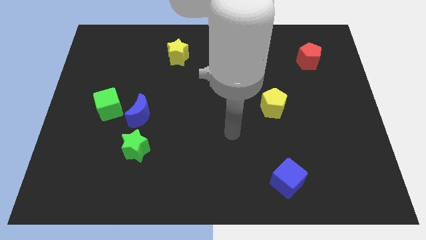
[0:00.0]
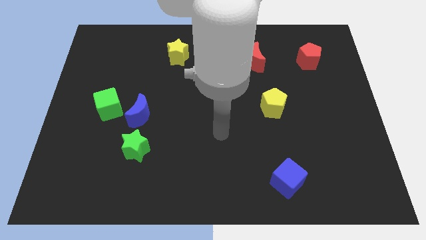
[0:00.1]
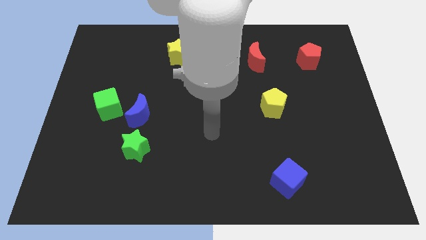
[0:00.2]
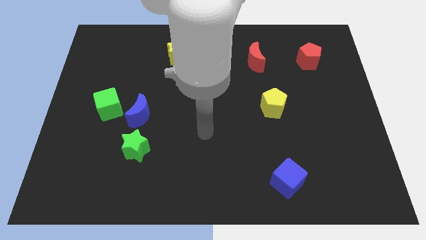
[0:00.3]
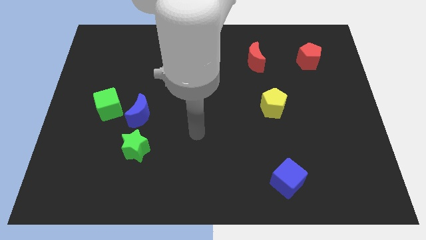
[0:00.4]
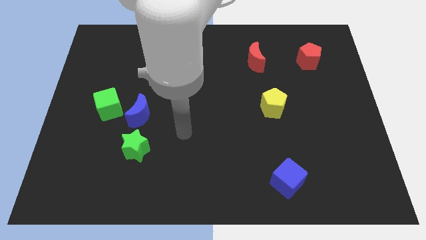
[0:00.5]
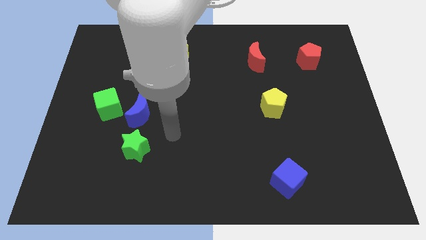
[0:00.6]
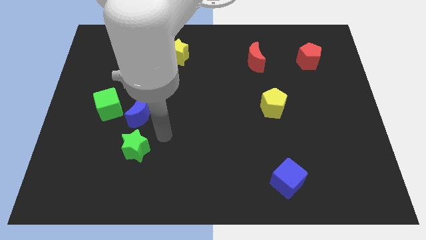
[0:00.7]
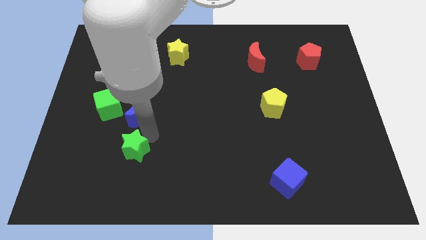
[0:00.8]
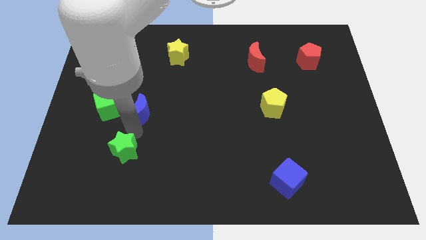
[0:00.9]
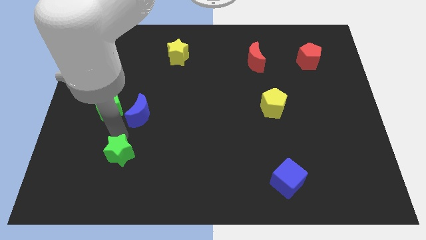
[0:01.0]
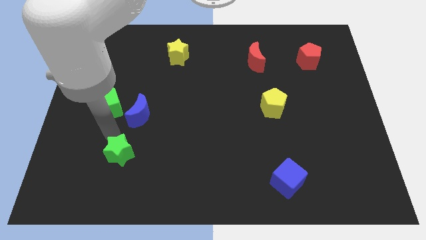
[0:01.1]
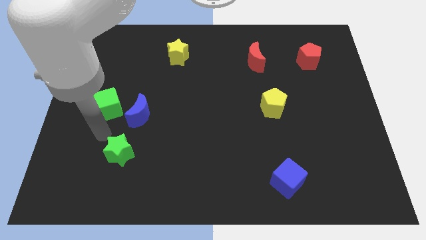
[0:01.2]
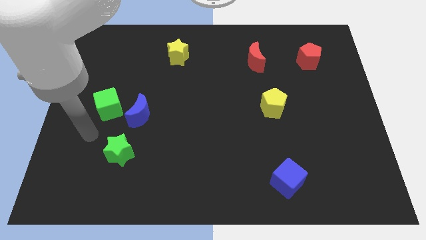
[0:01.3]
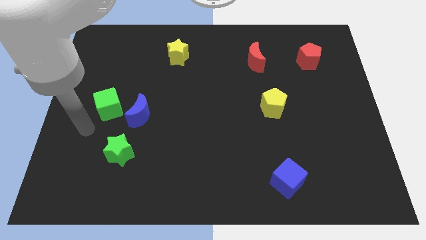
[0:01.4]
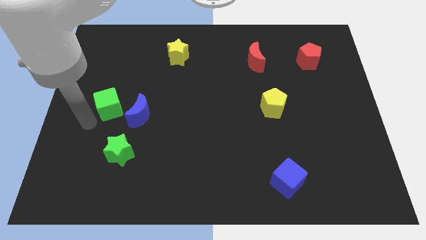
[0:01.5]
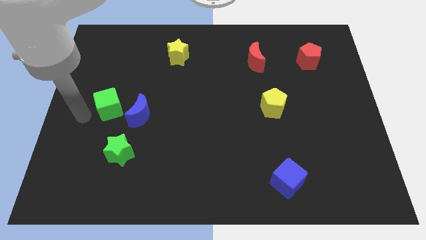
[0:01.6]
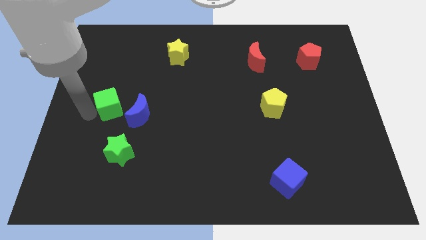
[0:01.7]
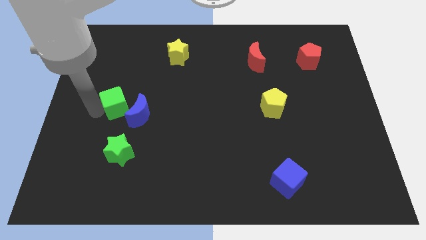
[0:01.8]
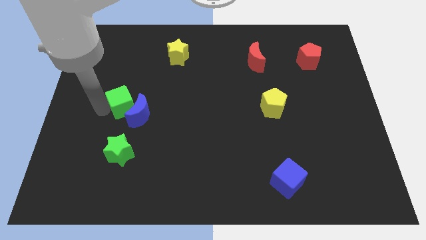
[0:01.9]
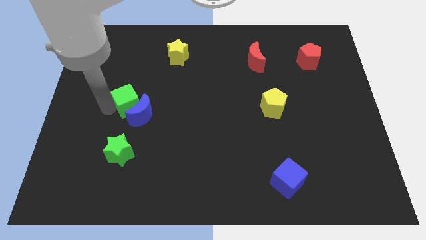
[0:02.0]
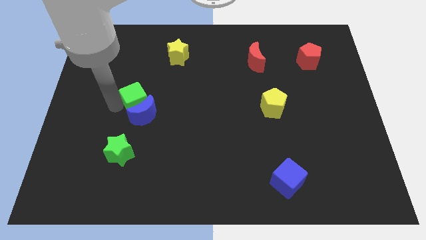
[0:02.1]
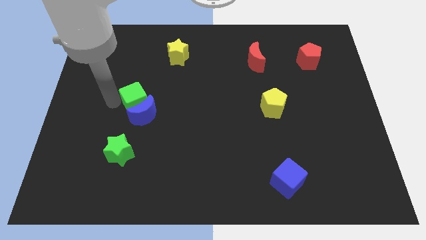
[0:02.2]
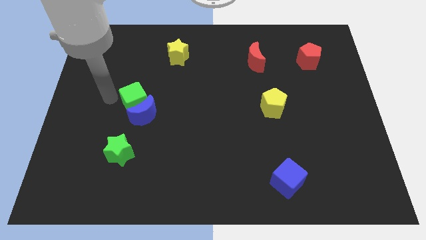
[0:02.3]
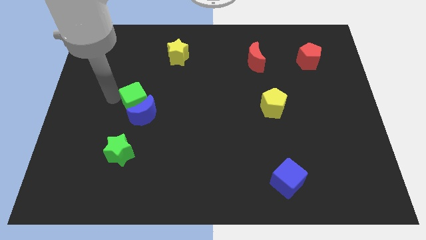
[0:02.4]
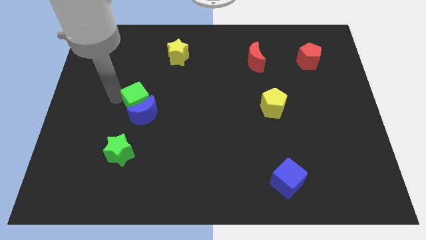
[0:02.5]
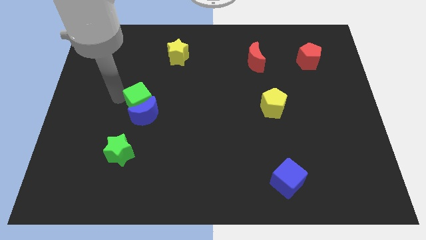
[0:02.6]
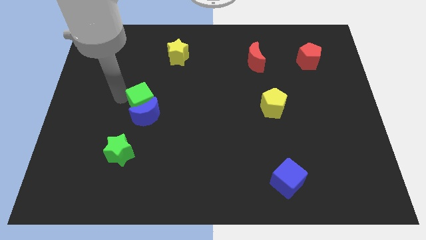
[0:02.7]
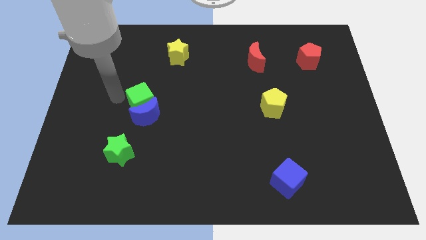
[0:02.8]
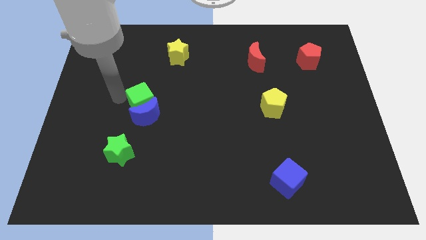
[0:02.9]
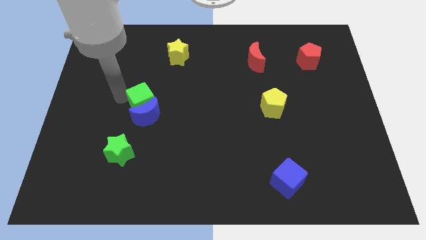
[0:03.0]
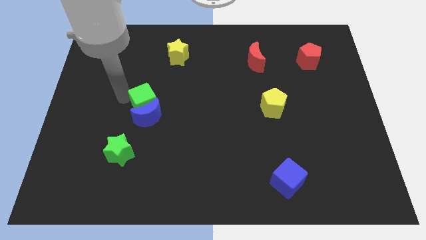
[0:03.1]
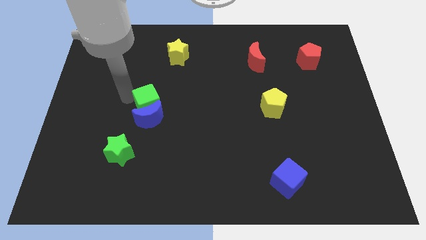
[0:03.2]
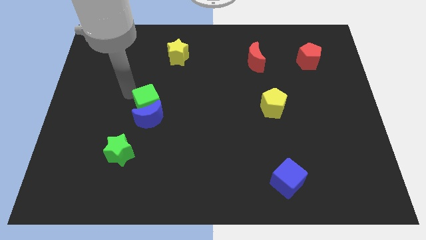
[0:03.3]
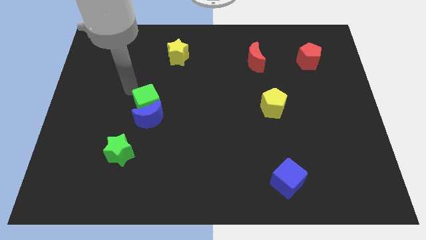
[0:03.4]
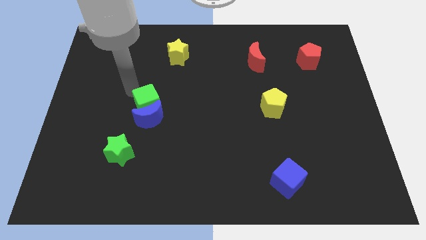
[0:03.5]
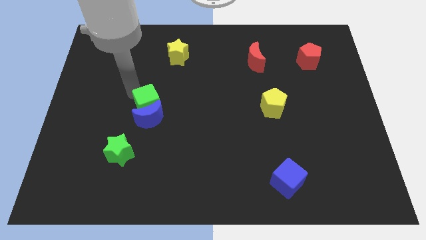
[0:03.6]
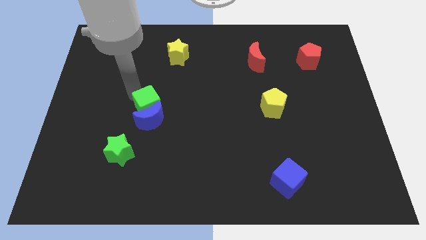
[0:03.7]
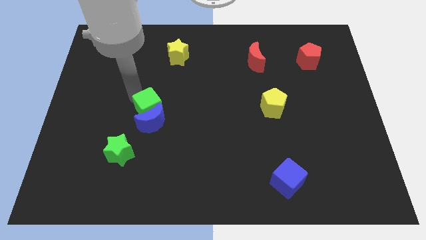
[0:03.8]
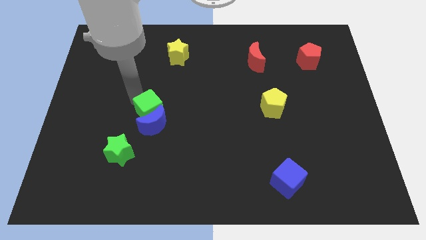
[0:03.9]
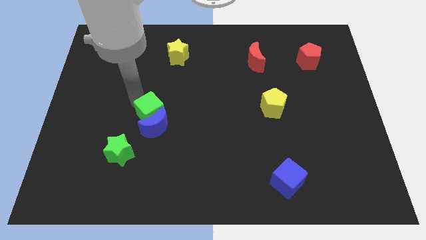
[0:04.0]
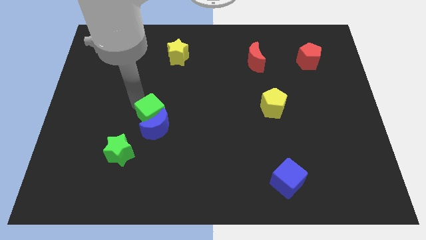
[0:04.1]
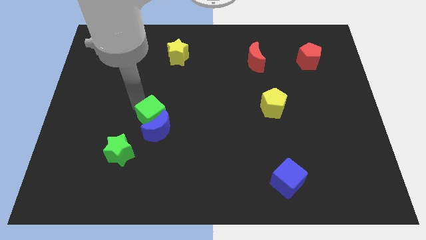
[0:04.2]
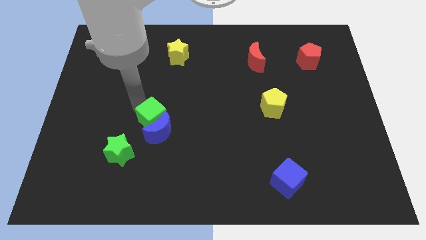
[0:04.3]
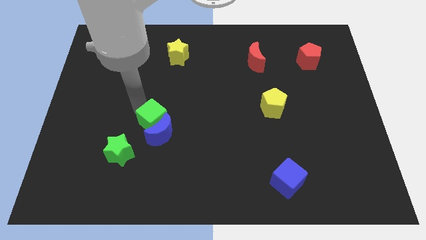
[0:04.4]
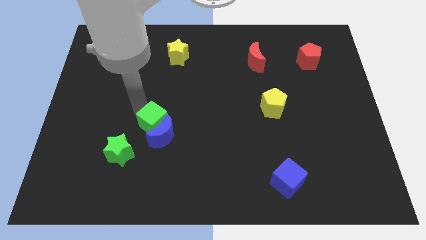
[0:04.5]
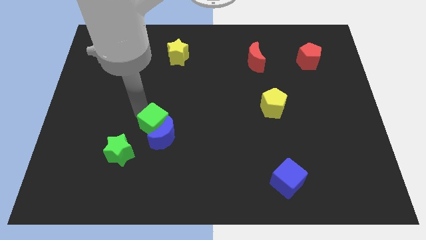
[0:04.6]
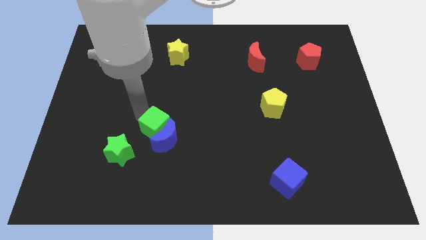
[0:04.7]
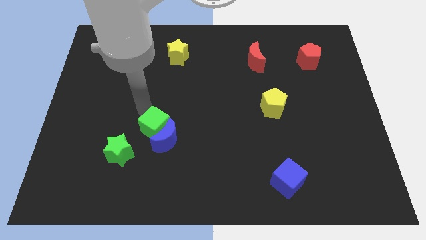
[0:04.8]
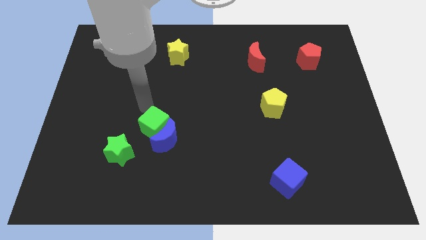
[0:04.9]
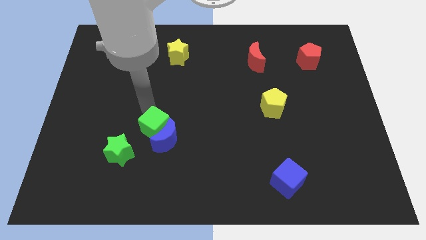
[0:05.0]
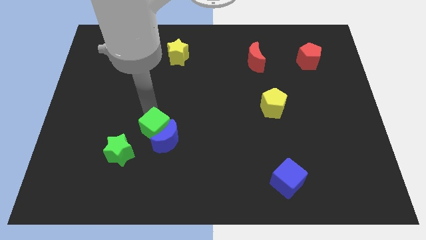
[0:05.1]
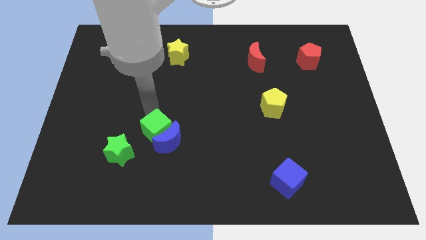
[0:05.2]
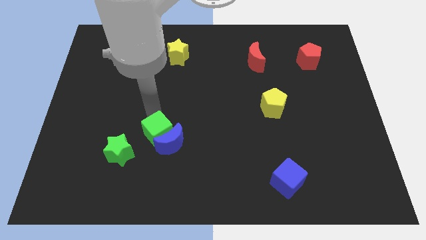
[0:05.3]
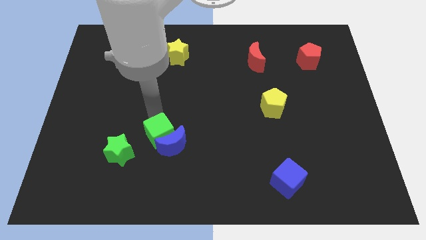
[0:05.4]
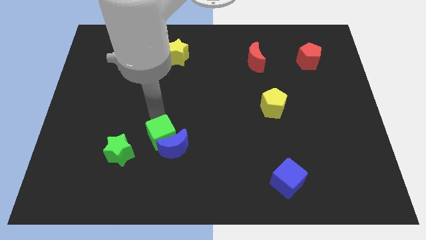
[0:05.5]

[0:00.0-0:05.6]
move the green cube just right of the green star

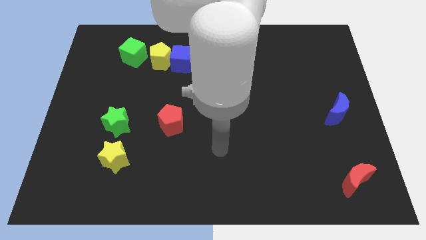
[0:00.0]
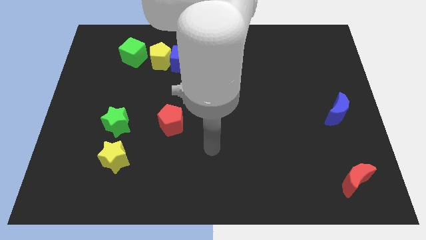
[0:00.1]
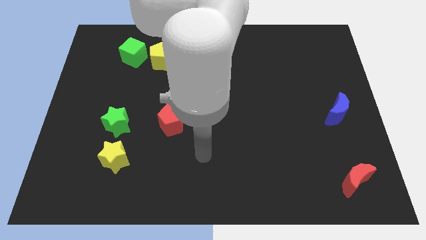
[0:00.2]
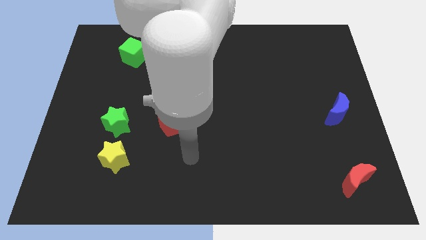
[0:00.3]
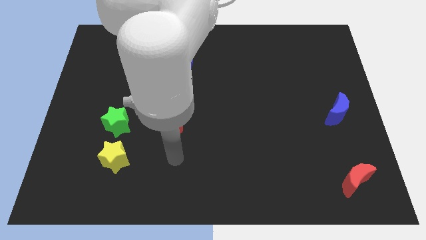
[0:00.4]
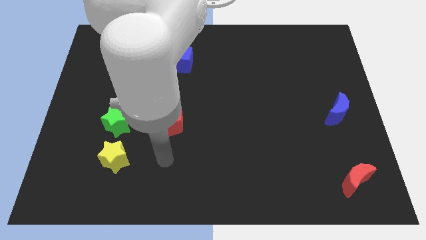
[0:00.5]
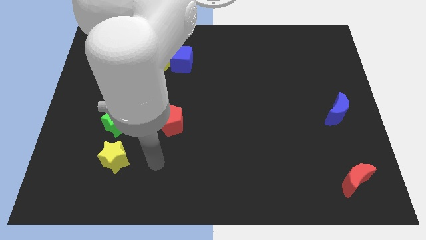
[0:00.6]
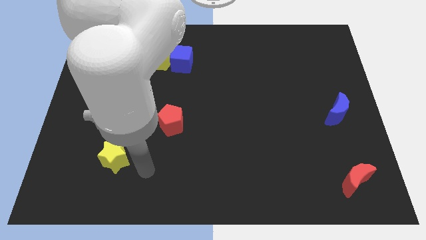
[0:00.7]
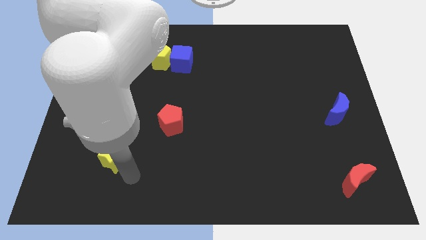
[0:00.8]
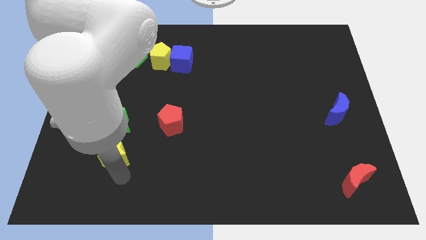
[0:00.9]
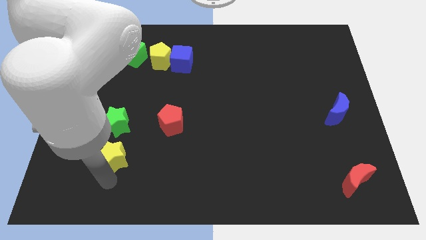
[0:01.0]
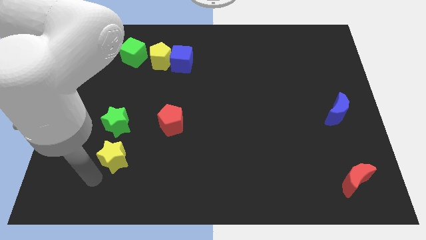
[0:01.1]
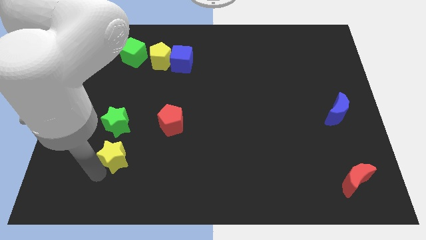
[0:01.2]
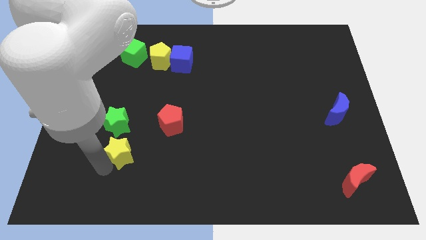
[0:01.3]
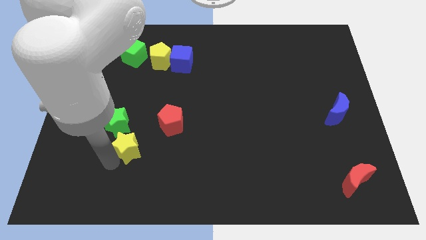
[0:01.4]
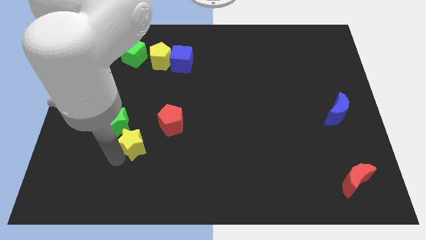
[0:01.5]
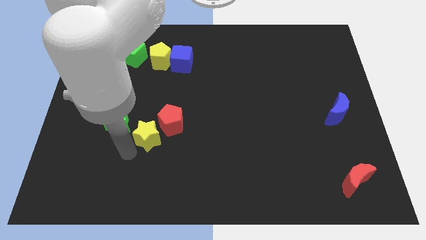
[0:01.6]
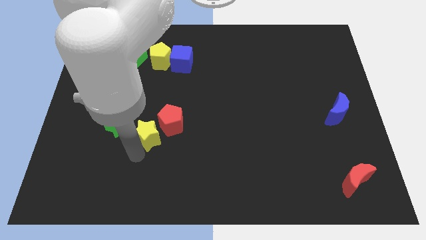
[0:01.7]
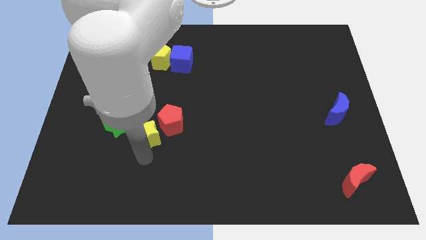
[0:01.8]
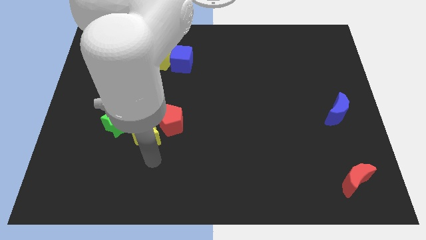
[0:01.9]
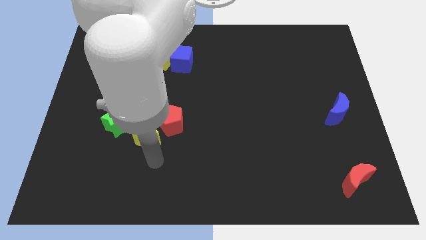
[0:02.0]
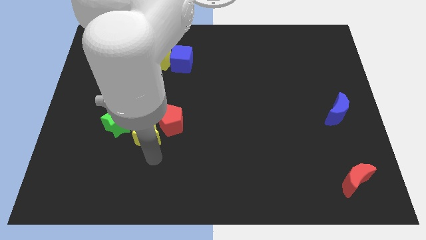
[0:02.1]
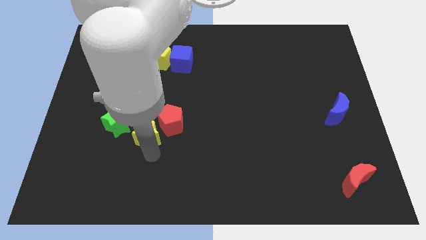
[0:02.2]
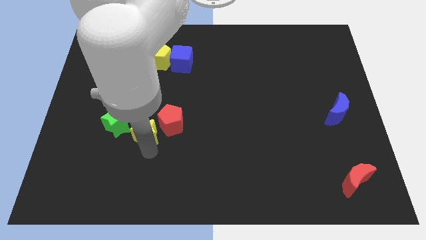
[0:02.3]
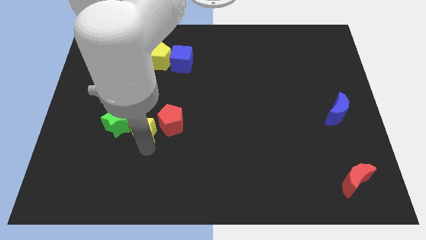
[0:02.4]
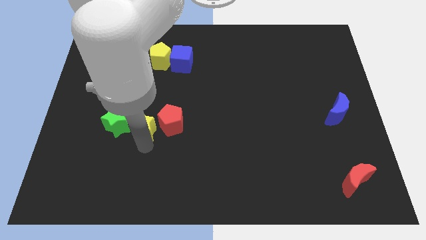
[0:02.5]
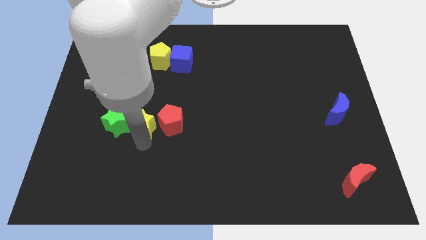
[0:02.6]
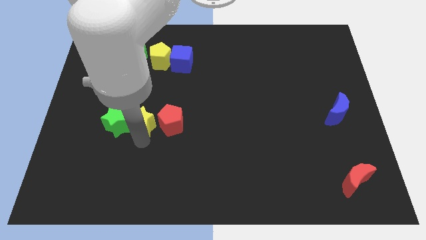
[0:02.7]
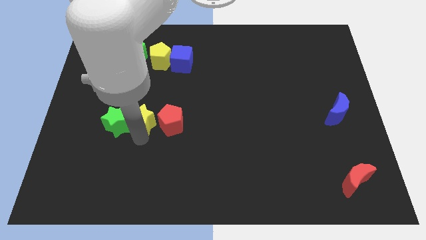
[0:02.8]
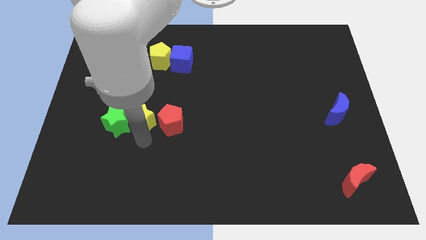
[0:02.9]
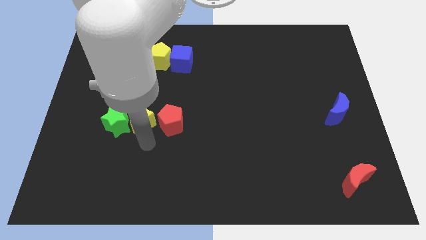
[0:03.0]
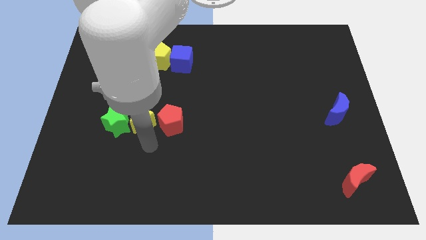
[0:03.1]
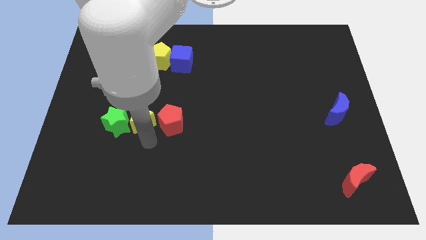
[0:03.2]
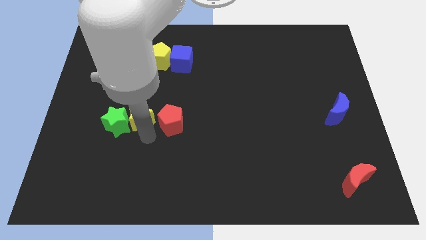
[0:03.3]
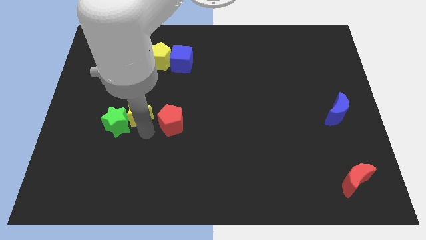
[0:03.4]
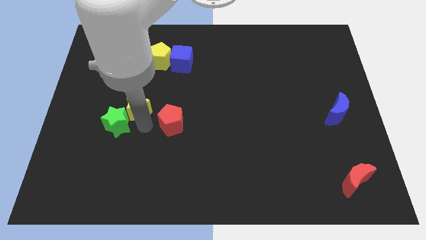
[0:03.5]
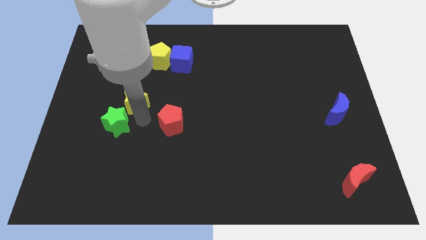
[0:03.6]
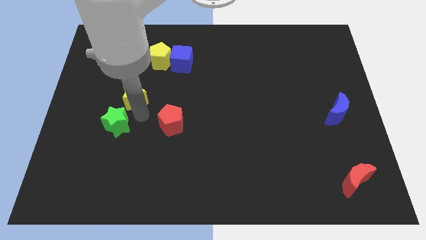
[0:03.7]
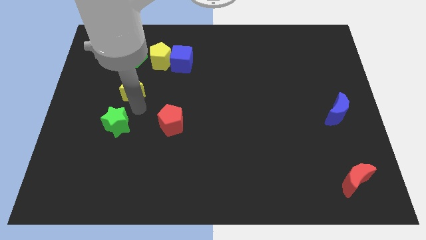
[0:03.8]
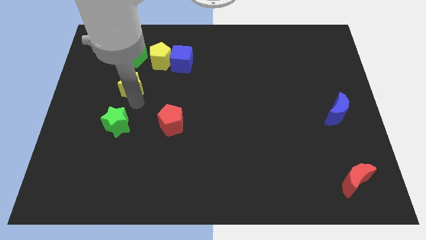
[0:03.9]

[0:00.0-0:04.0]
push the yellow star diagonally down and to the left of the yellow pentagon
